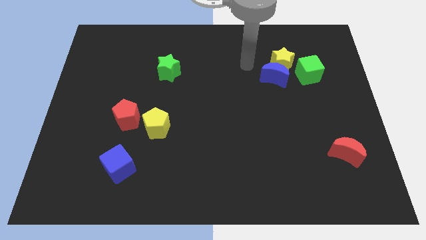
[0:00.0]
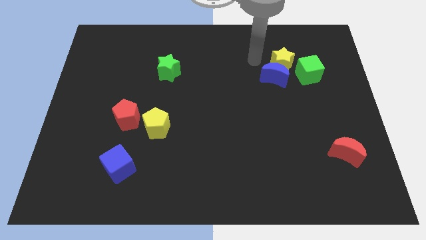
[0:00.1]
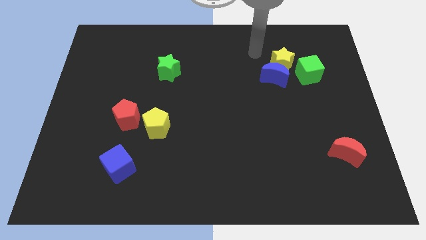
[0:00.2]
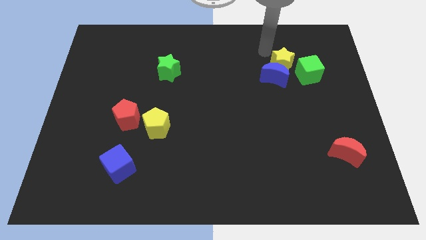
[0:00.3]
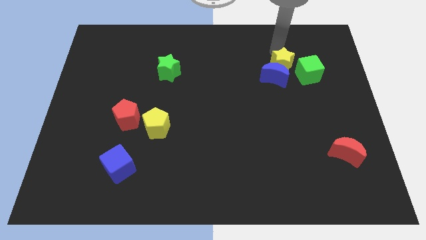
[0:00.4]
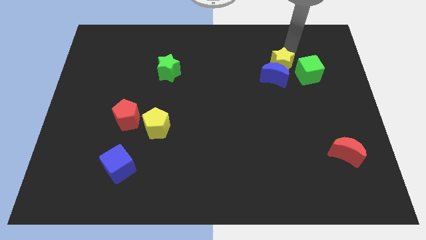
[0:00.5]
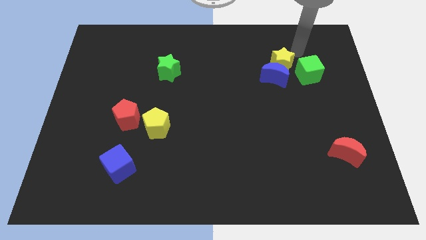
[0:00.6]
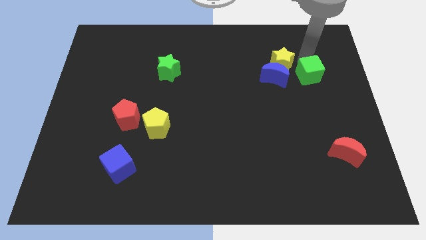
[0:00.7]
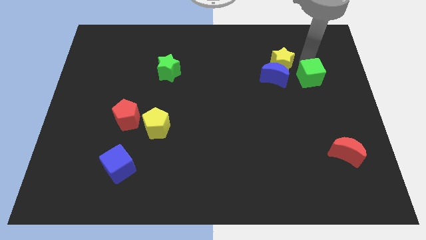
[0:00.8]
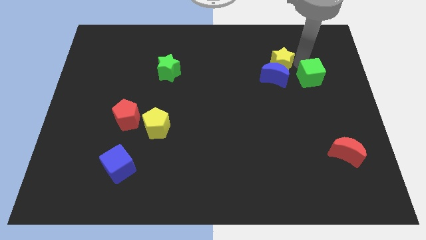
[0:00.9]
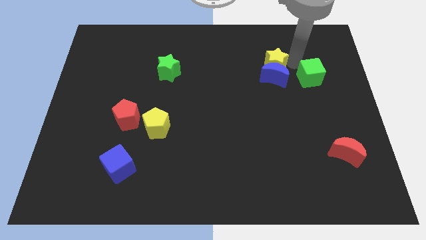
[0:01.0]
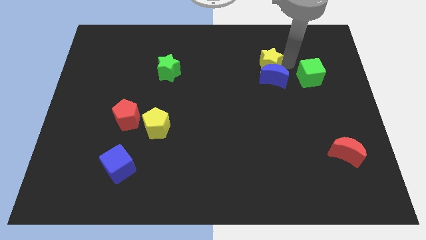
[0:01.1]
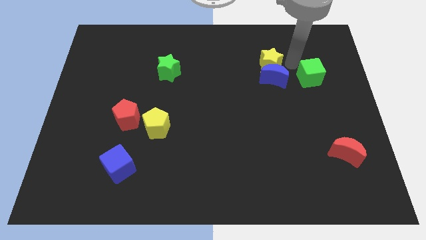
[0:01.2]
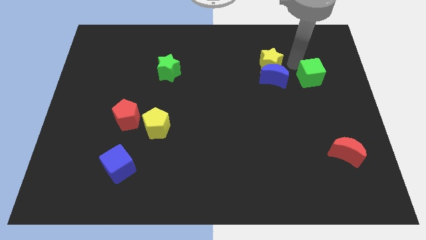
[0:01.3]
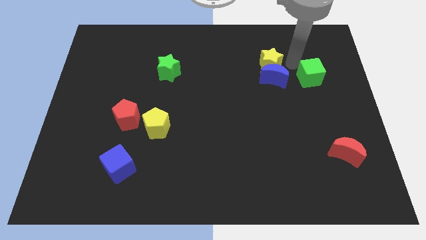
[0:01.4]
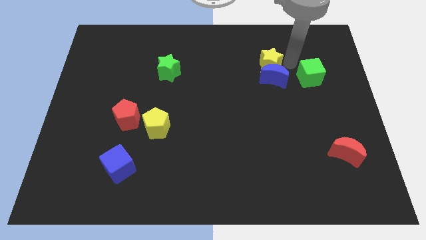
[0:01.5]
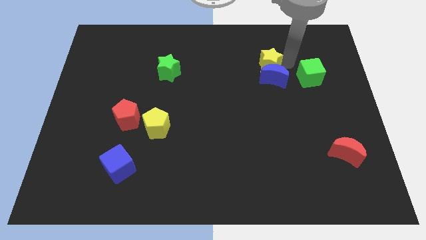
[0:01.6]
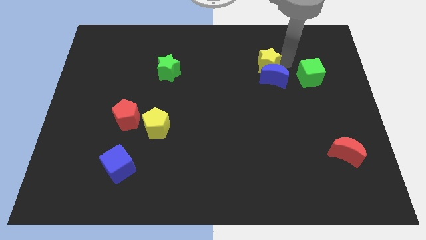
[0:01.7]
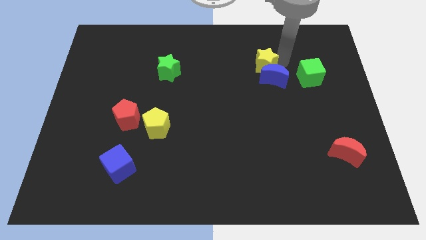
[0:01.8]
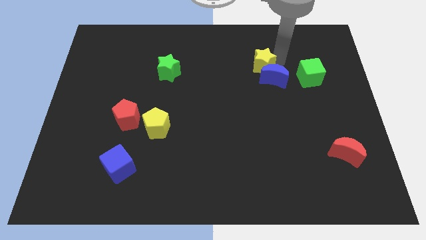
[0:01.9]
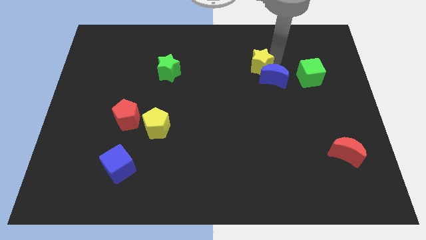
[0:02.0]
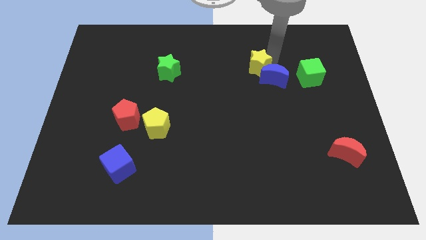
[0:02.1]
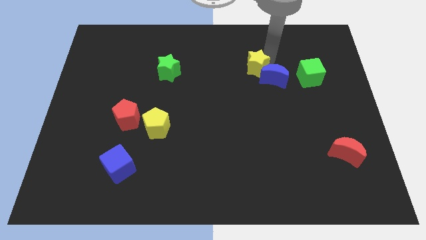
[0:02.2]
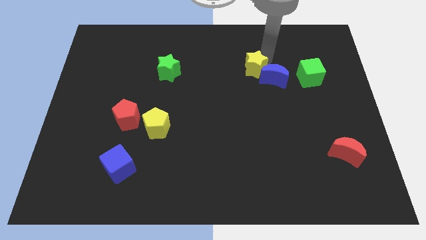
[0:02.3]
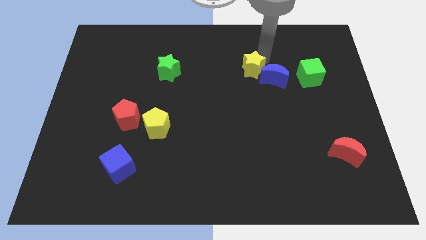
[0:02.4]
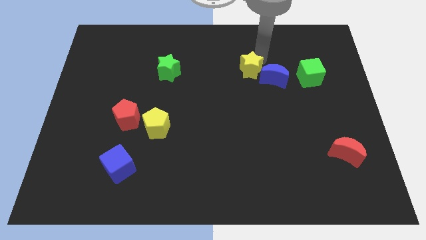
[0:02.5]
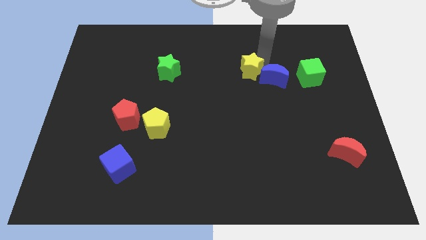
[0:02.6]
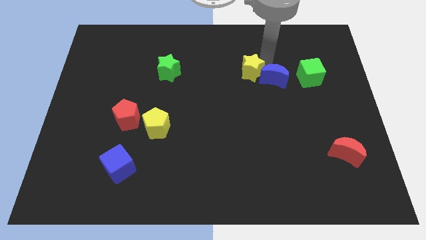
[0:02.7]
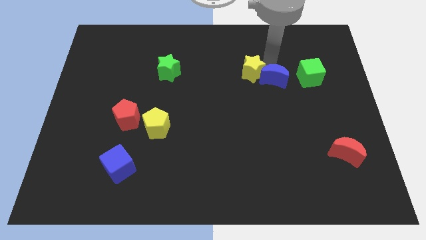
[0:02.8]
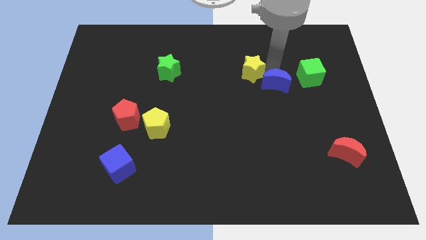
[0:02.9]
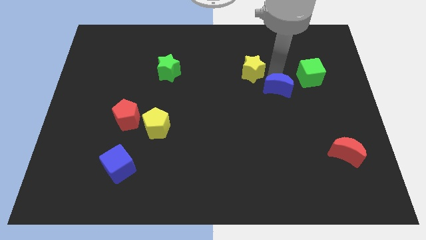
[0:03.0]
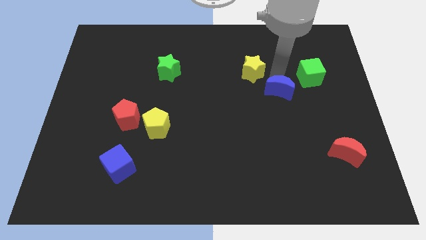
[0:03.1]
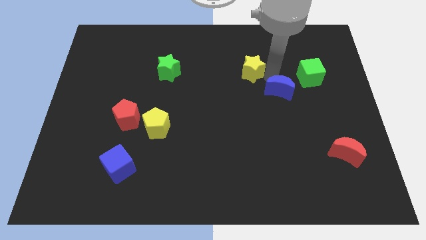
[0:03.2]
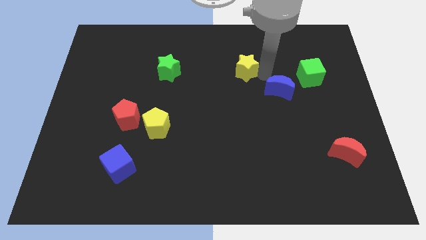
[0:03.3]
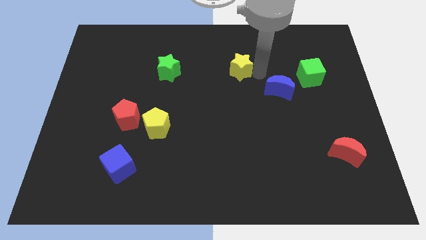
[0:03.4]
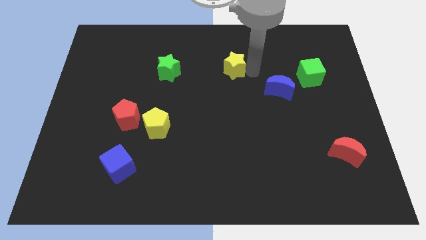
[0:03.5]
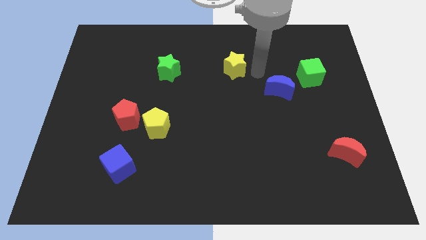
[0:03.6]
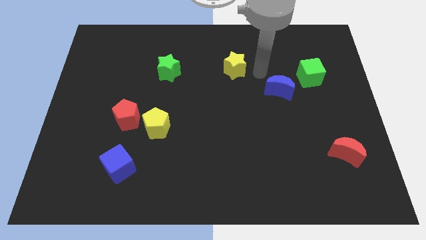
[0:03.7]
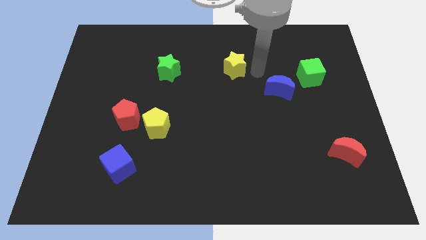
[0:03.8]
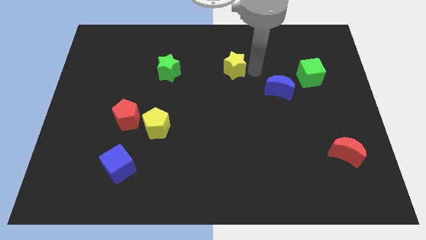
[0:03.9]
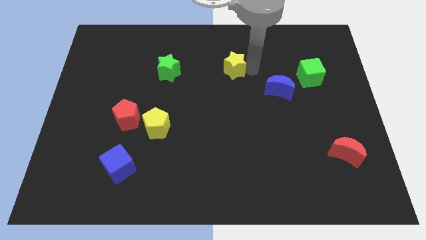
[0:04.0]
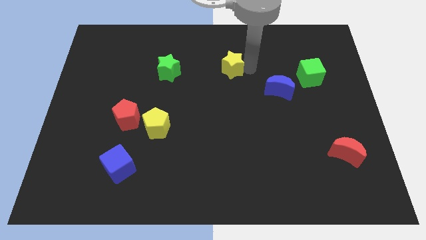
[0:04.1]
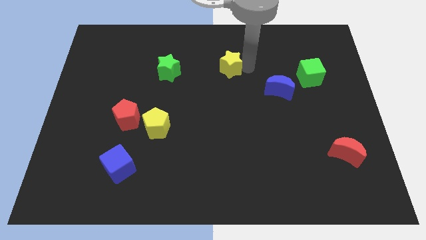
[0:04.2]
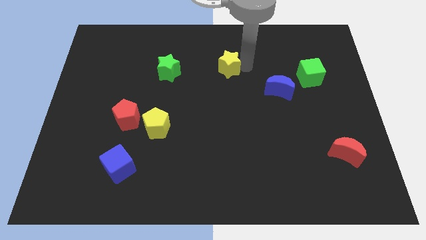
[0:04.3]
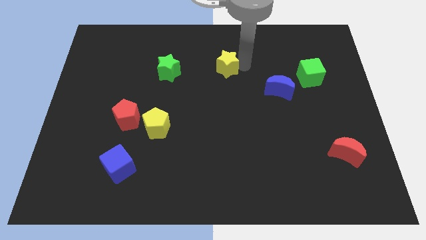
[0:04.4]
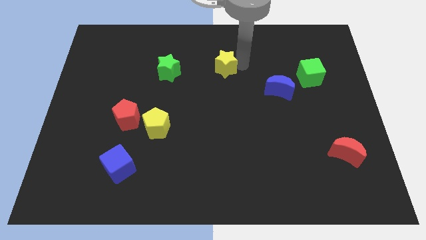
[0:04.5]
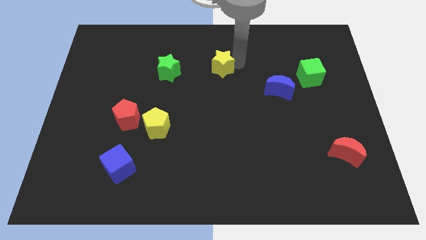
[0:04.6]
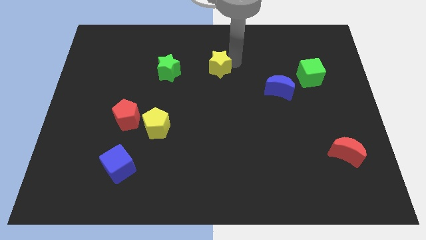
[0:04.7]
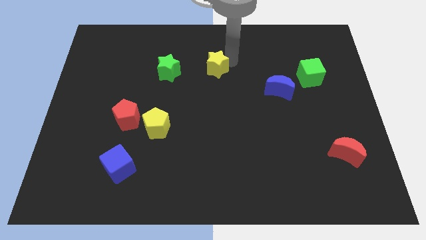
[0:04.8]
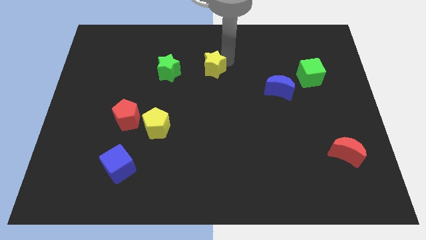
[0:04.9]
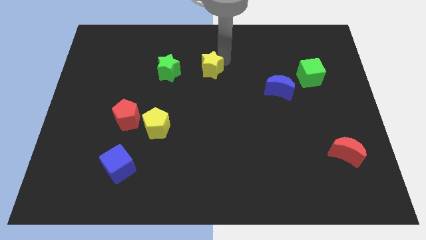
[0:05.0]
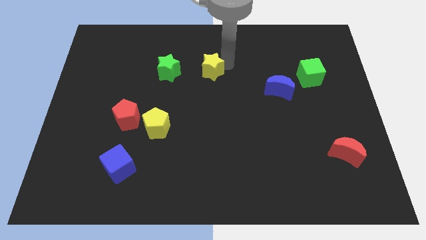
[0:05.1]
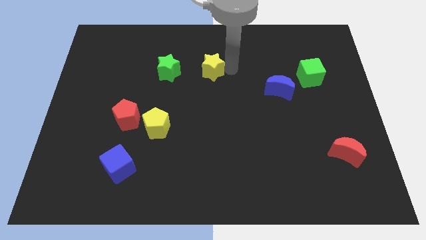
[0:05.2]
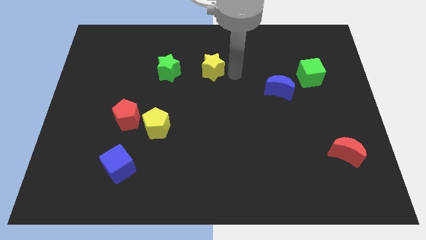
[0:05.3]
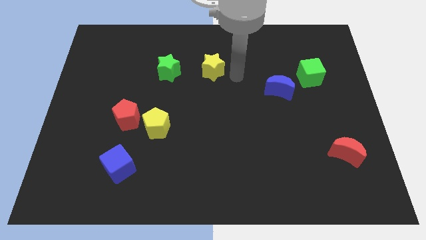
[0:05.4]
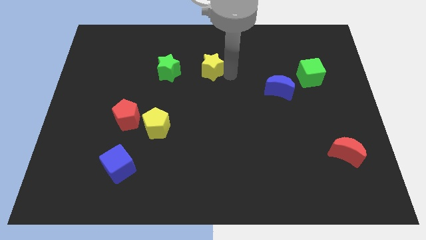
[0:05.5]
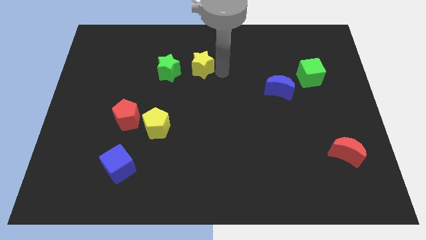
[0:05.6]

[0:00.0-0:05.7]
move the yellow star left

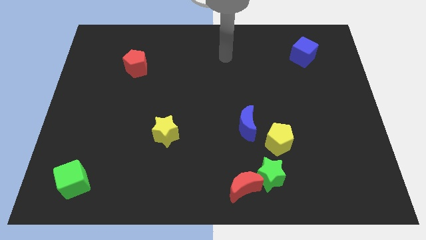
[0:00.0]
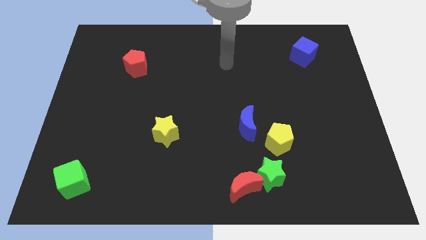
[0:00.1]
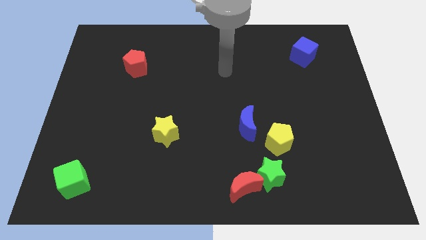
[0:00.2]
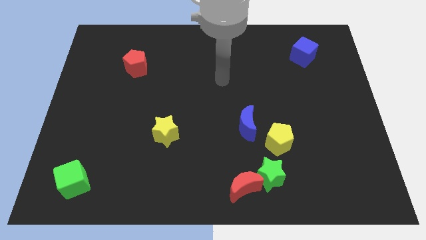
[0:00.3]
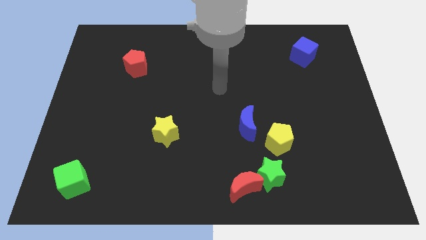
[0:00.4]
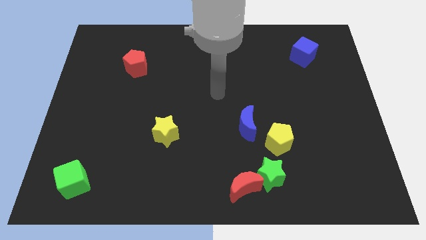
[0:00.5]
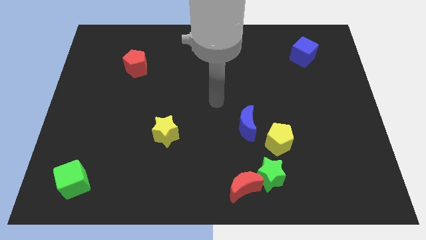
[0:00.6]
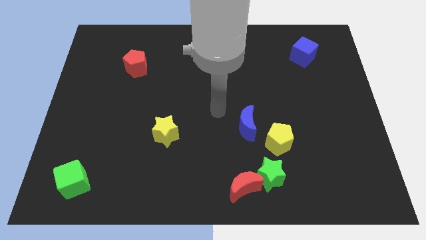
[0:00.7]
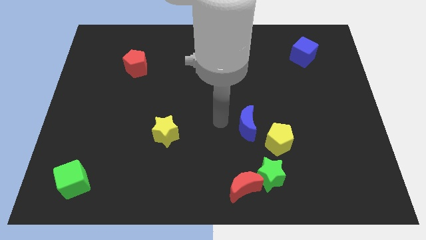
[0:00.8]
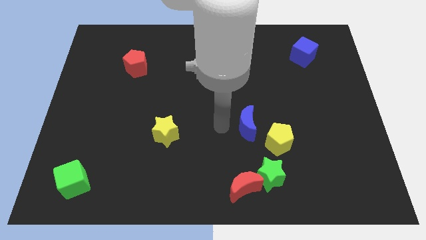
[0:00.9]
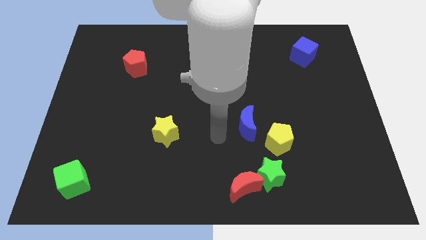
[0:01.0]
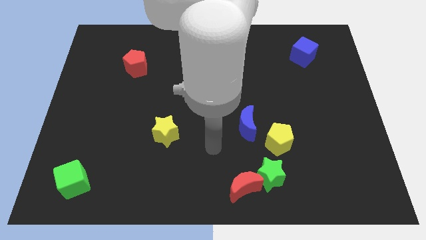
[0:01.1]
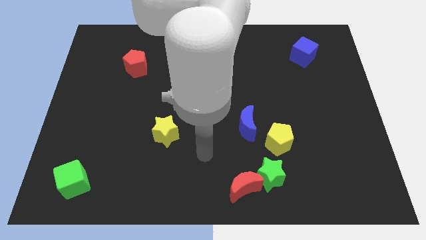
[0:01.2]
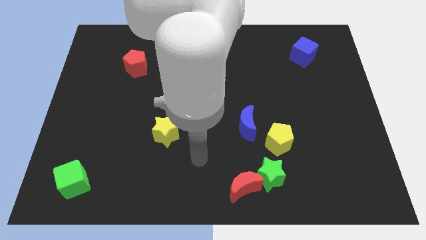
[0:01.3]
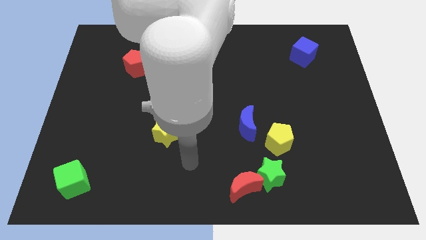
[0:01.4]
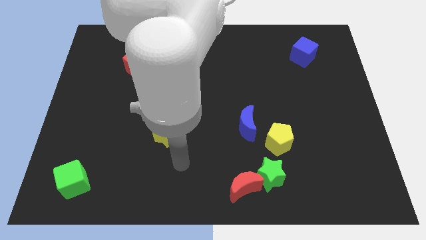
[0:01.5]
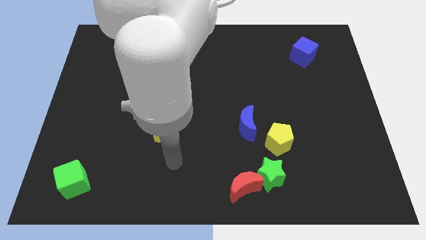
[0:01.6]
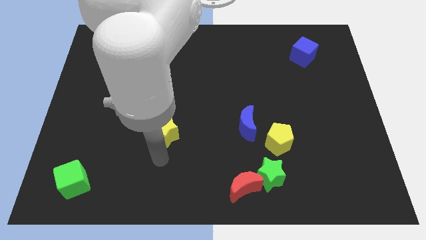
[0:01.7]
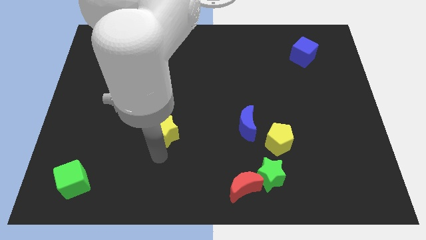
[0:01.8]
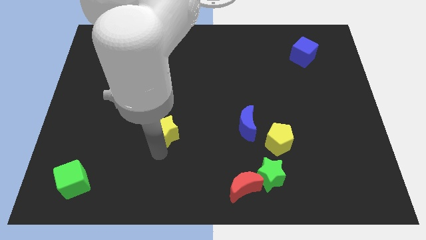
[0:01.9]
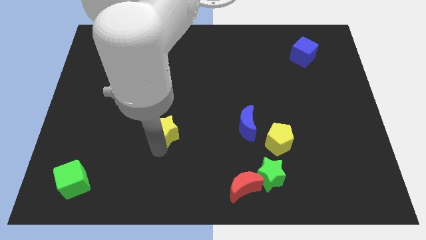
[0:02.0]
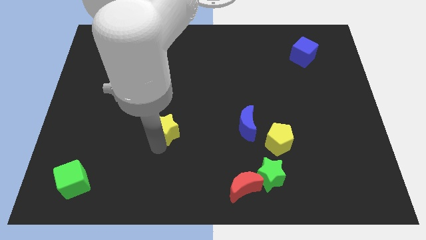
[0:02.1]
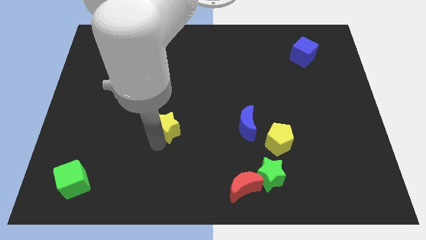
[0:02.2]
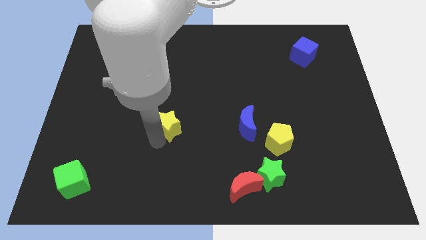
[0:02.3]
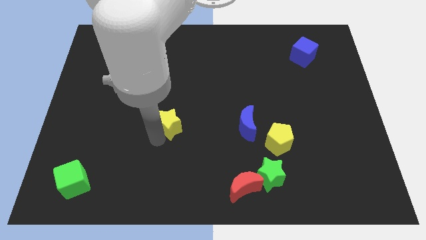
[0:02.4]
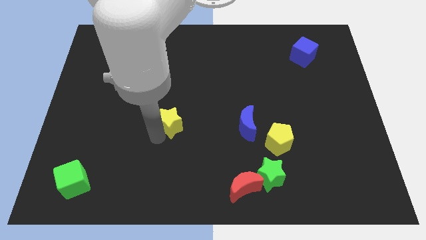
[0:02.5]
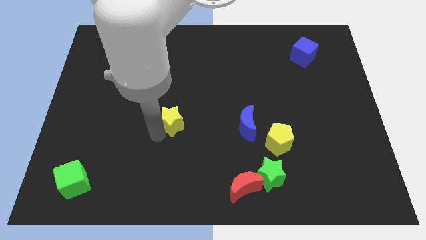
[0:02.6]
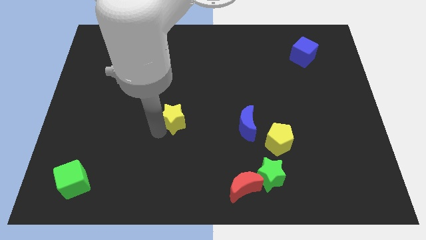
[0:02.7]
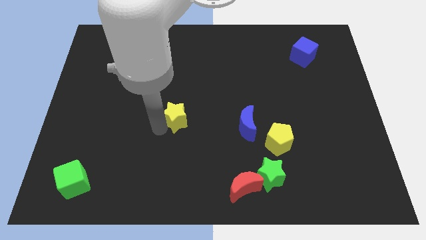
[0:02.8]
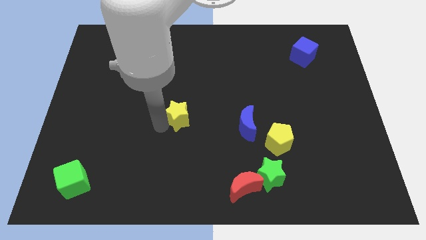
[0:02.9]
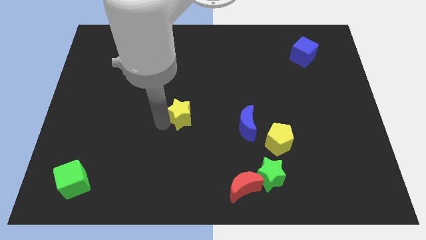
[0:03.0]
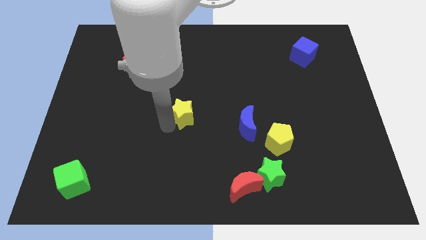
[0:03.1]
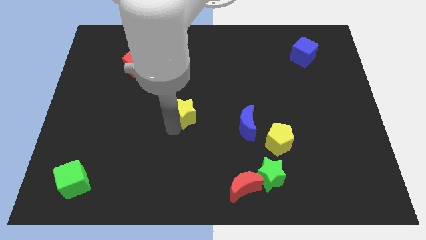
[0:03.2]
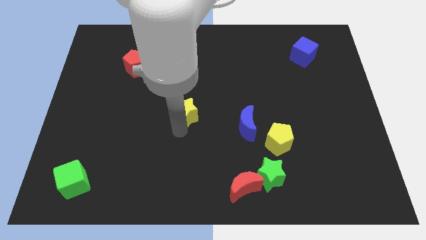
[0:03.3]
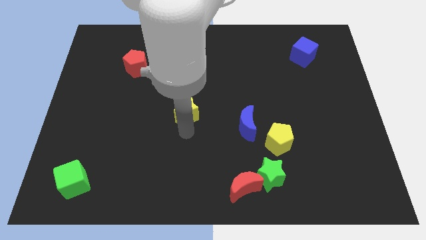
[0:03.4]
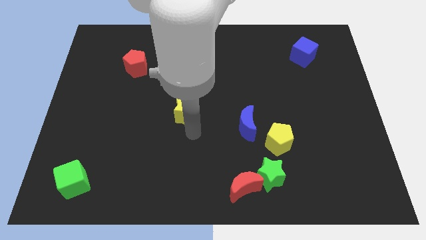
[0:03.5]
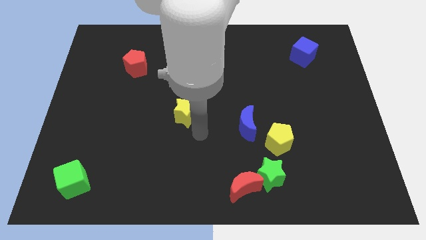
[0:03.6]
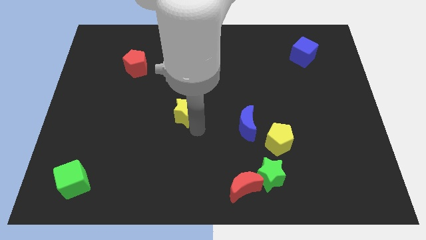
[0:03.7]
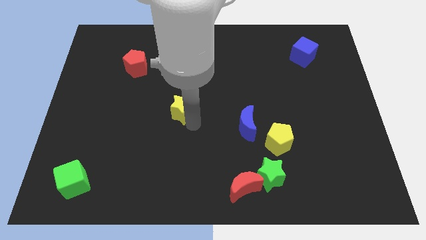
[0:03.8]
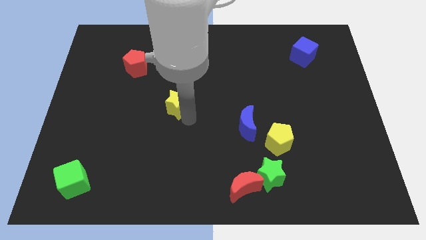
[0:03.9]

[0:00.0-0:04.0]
move the yellow star a little upwards
